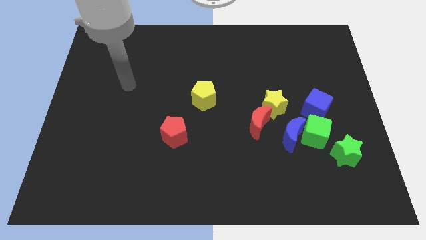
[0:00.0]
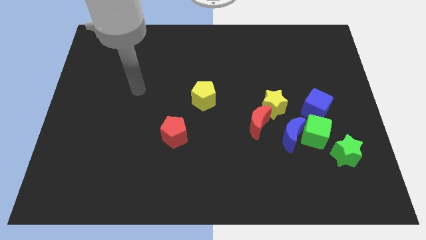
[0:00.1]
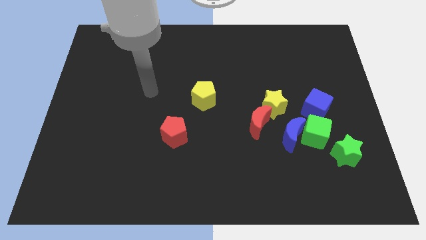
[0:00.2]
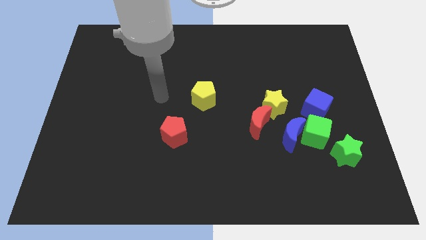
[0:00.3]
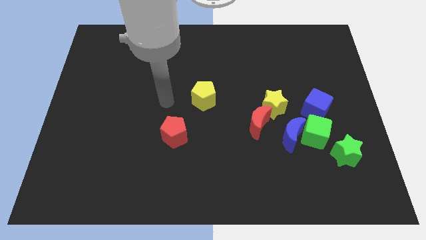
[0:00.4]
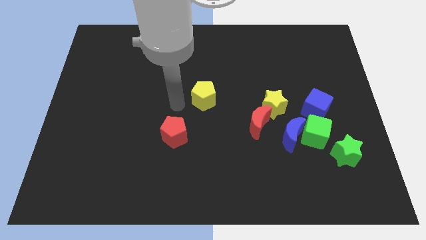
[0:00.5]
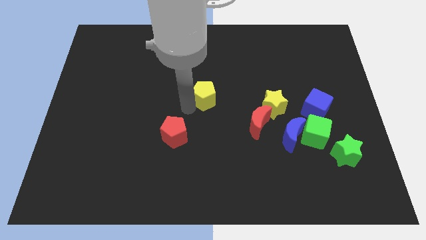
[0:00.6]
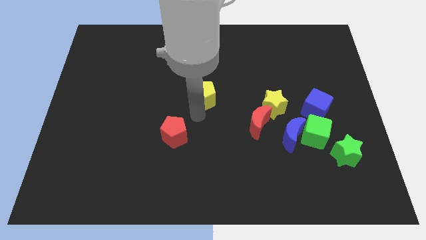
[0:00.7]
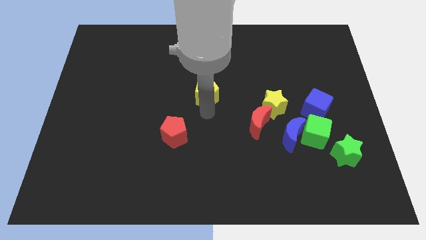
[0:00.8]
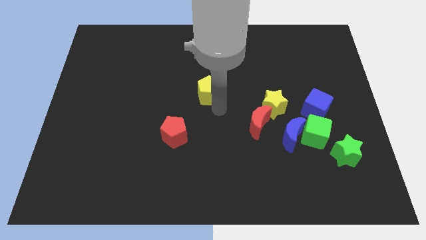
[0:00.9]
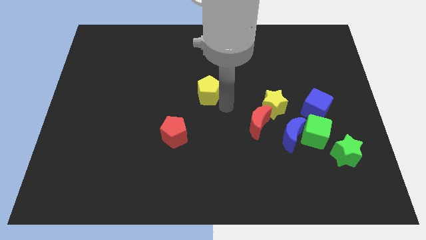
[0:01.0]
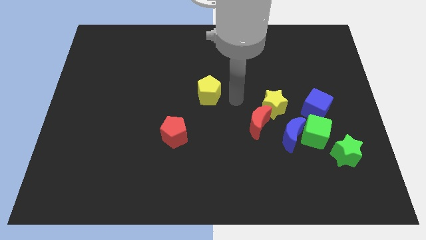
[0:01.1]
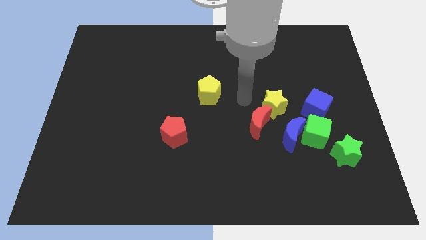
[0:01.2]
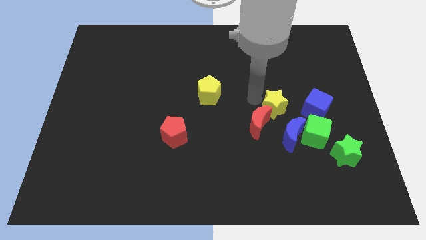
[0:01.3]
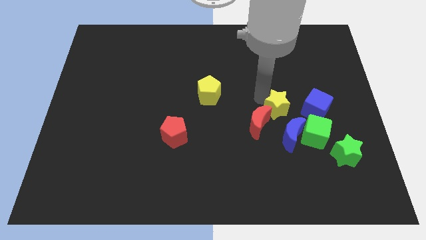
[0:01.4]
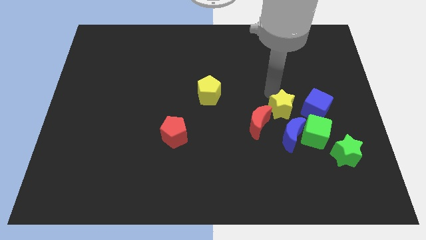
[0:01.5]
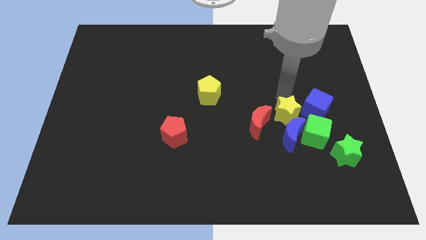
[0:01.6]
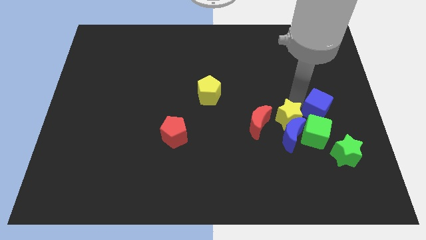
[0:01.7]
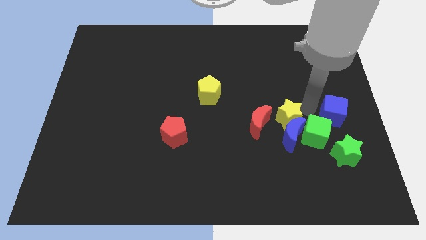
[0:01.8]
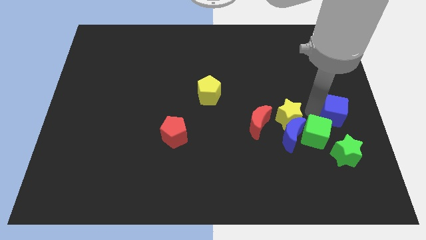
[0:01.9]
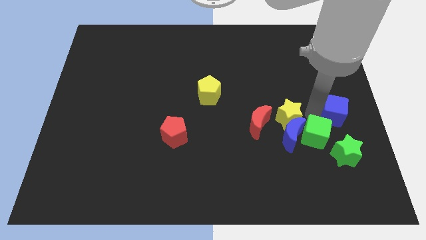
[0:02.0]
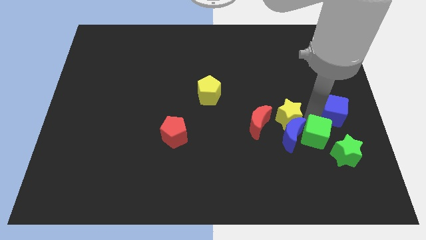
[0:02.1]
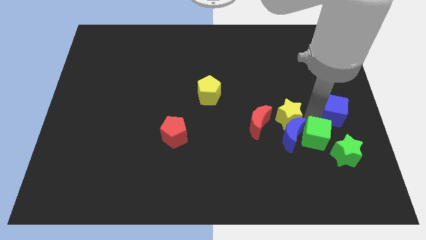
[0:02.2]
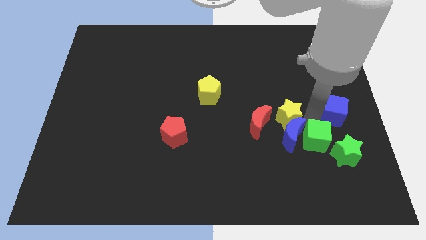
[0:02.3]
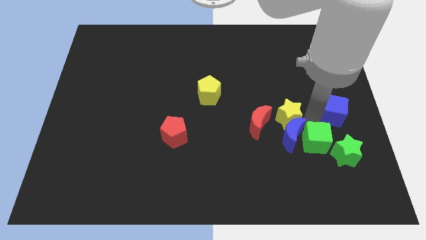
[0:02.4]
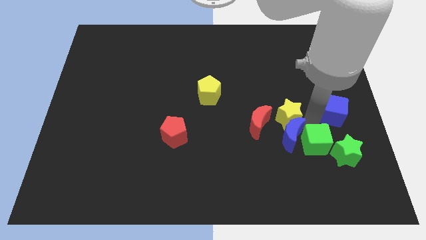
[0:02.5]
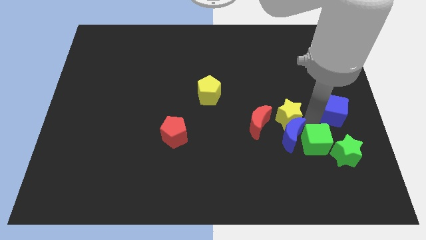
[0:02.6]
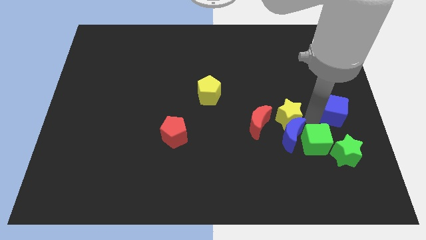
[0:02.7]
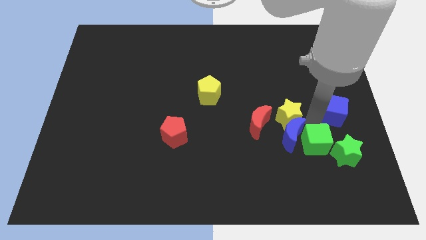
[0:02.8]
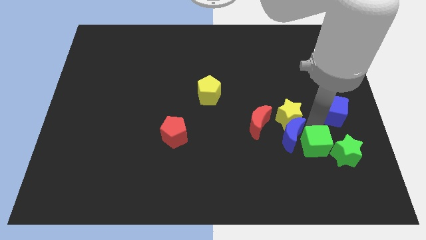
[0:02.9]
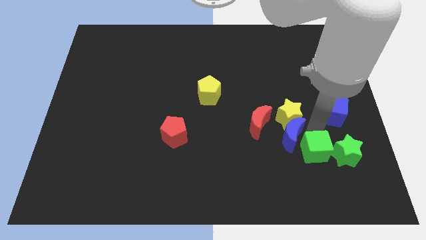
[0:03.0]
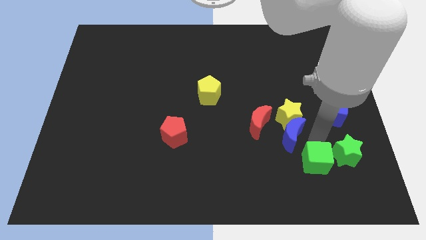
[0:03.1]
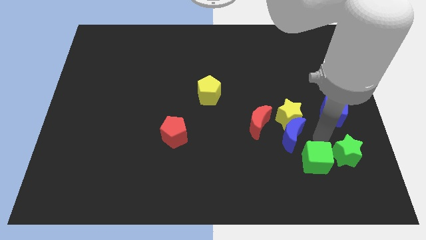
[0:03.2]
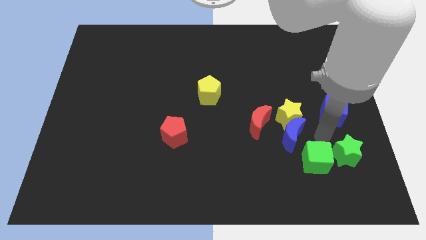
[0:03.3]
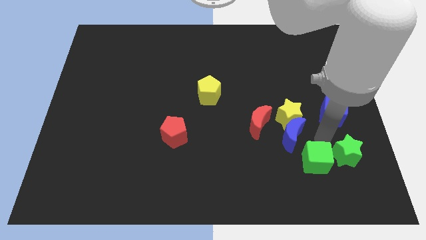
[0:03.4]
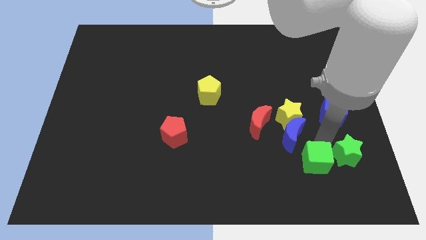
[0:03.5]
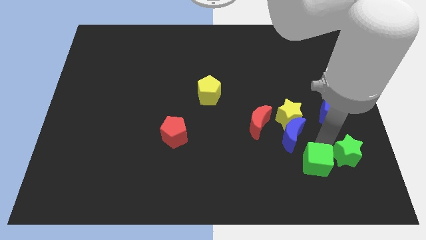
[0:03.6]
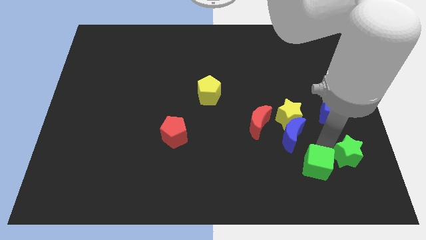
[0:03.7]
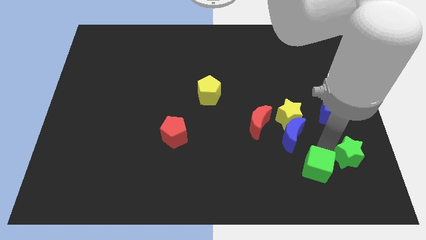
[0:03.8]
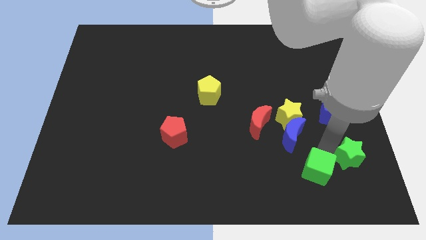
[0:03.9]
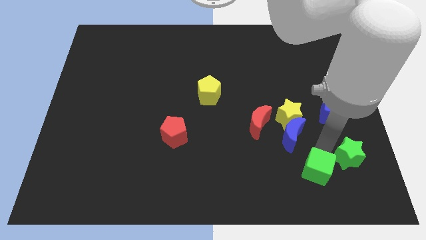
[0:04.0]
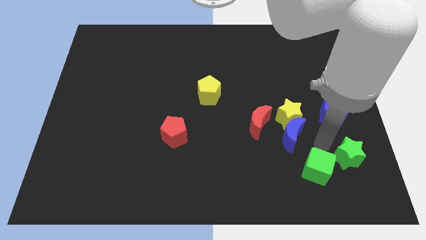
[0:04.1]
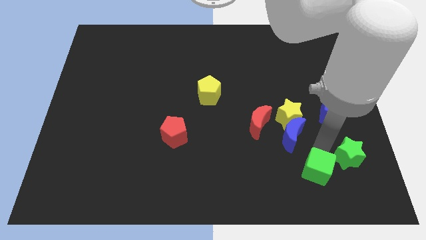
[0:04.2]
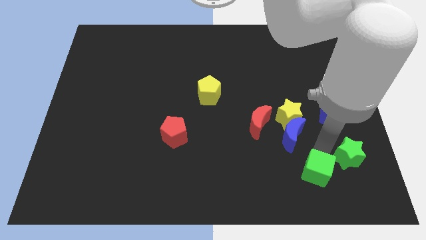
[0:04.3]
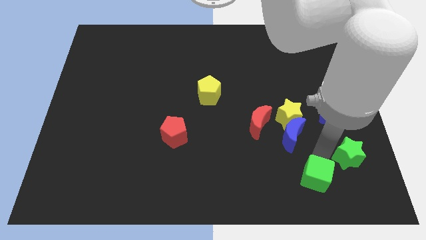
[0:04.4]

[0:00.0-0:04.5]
move the green cube away from the blue moon, blue cube, and green star

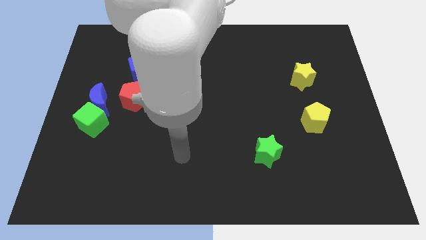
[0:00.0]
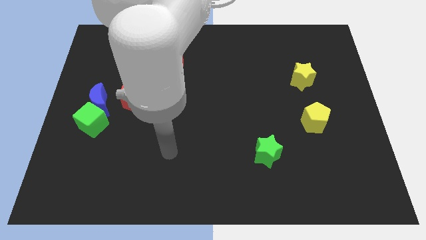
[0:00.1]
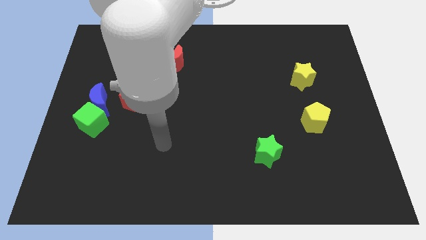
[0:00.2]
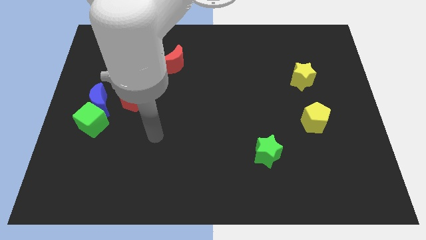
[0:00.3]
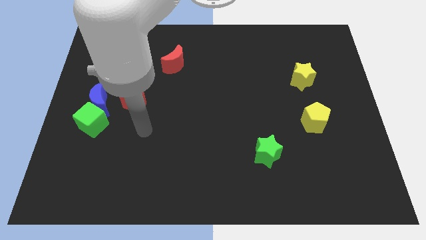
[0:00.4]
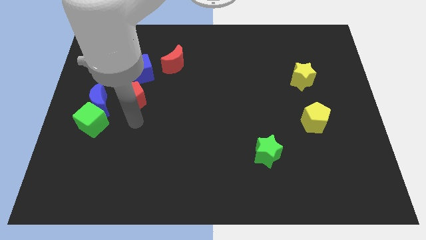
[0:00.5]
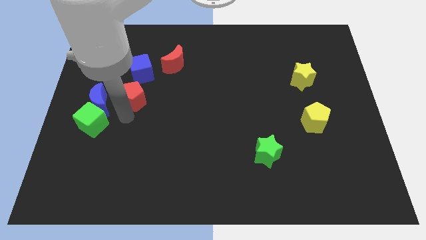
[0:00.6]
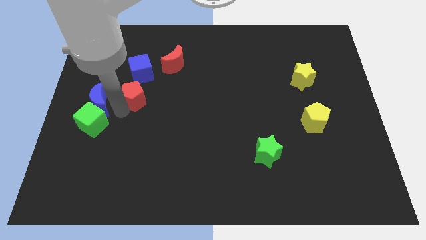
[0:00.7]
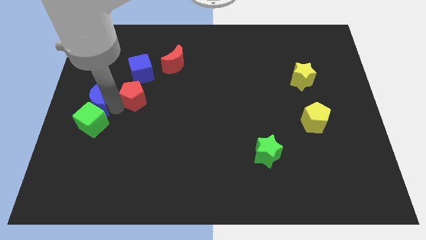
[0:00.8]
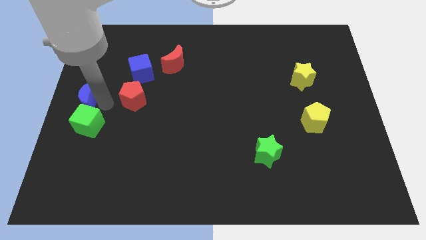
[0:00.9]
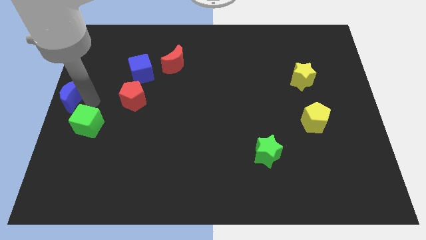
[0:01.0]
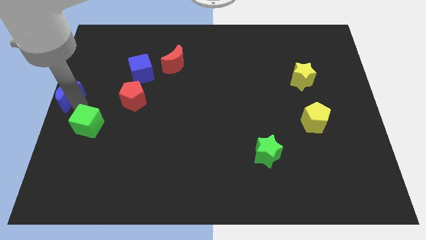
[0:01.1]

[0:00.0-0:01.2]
pull the green cube apart from the blue moon

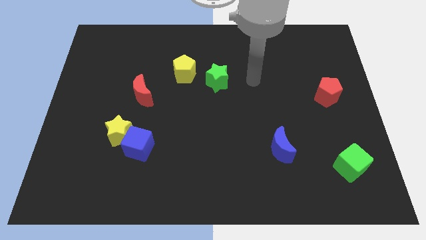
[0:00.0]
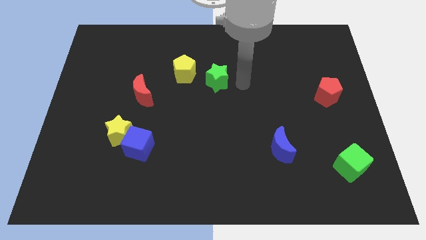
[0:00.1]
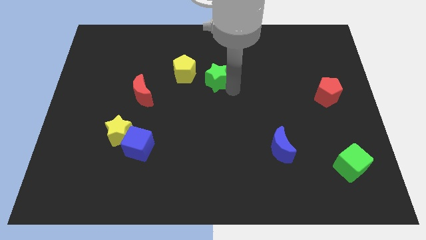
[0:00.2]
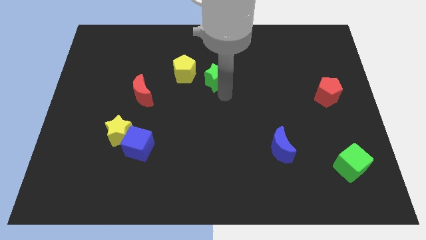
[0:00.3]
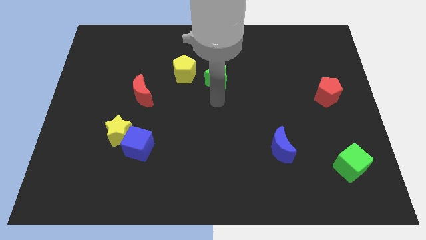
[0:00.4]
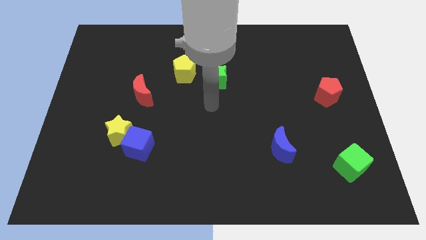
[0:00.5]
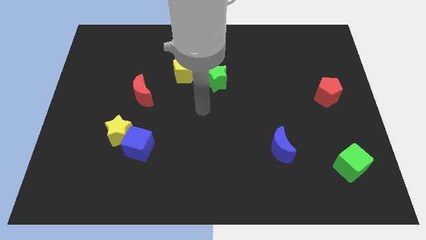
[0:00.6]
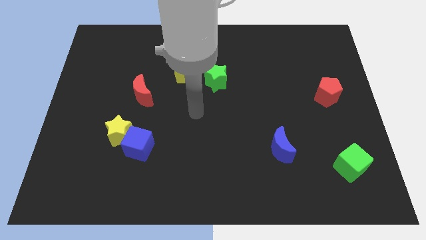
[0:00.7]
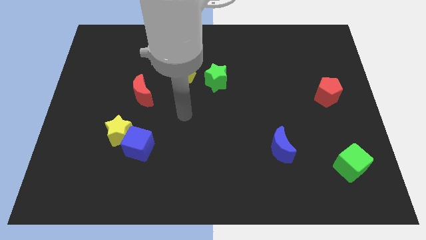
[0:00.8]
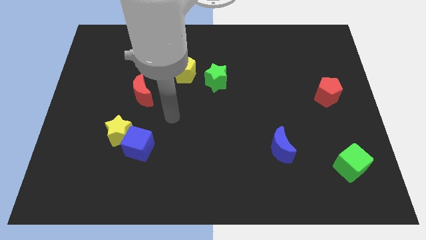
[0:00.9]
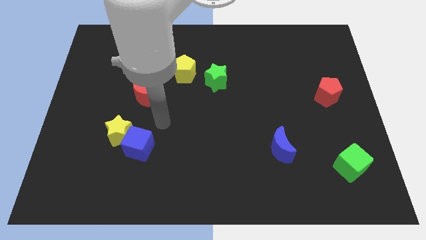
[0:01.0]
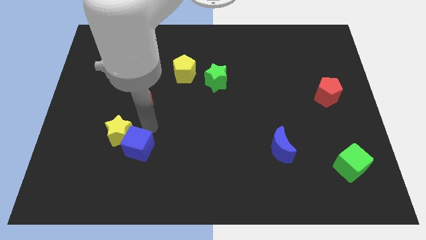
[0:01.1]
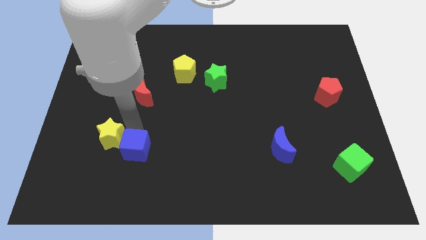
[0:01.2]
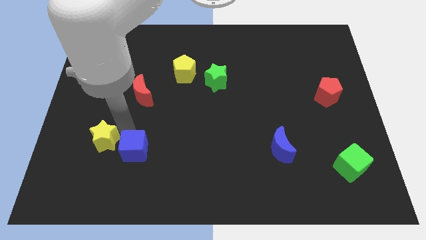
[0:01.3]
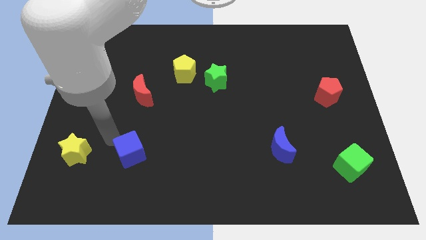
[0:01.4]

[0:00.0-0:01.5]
separate the blue cube from the yellow star

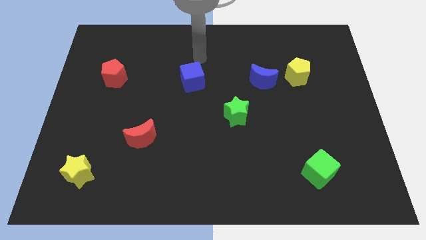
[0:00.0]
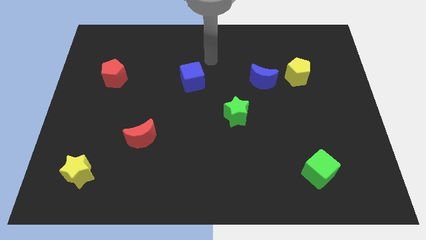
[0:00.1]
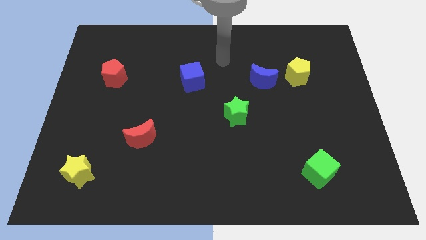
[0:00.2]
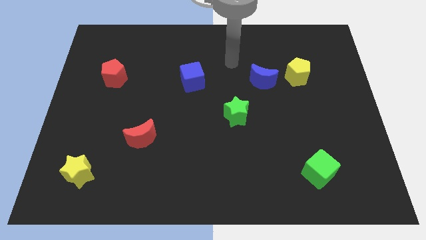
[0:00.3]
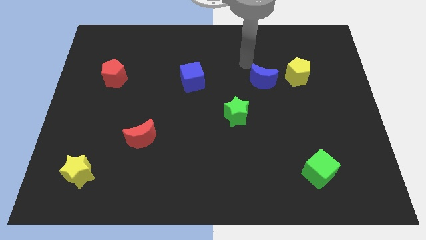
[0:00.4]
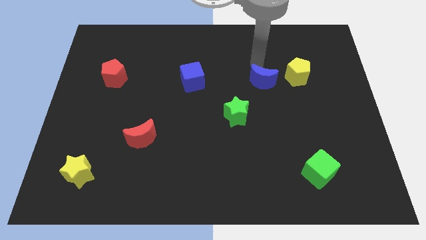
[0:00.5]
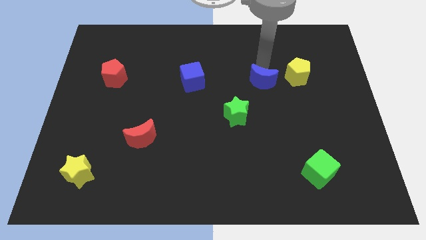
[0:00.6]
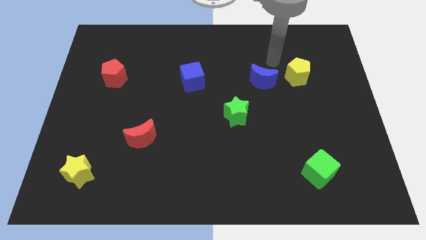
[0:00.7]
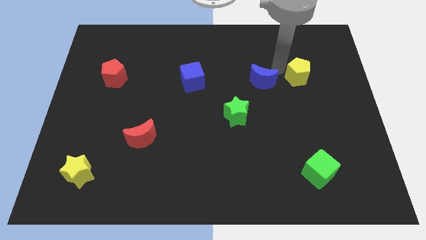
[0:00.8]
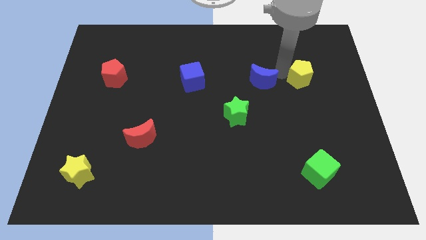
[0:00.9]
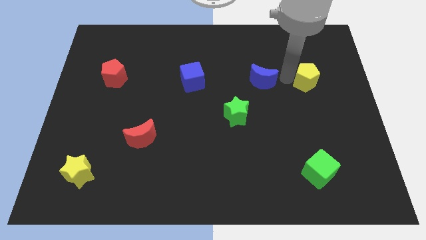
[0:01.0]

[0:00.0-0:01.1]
separate the blue moon from the yellow pentagon

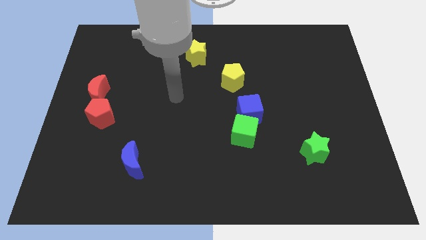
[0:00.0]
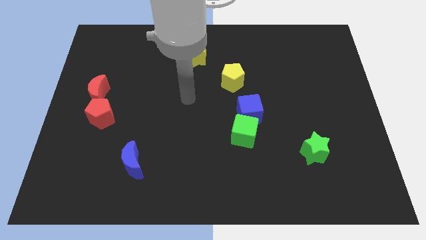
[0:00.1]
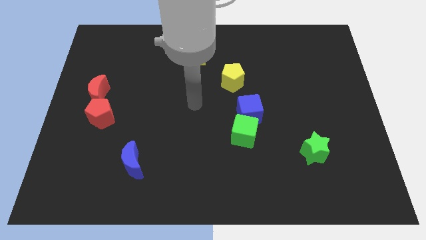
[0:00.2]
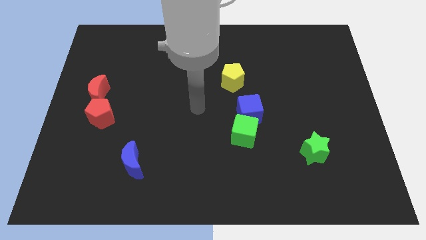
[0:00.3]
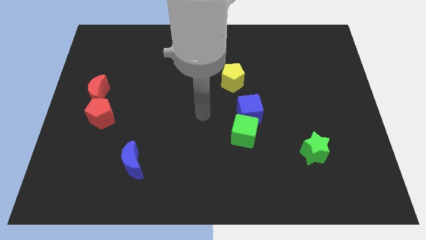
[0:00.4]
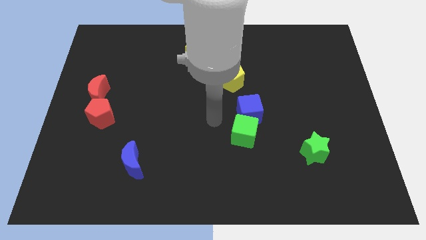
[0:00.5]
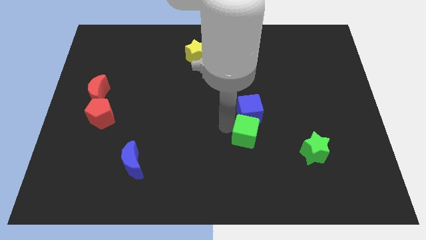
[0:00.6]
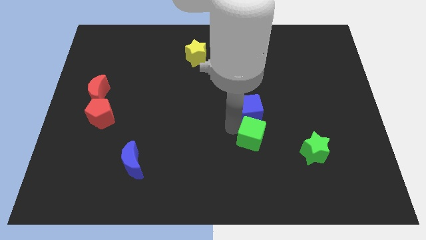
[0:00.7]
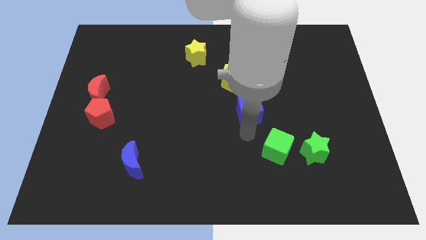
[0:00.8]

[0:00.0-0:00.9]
separate the blue cube from the green cube

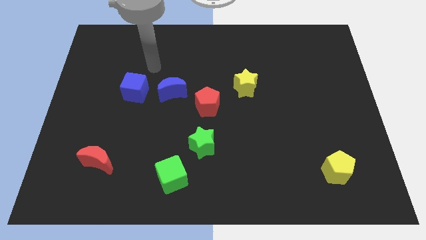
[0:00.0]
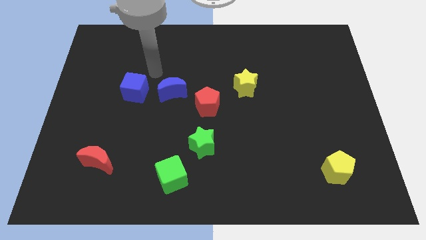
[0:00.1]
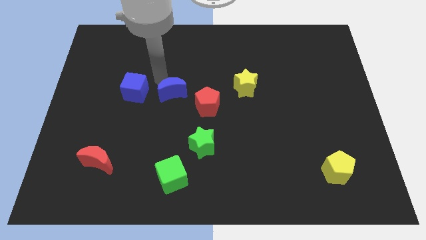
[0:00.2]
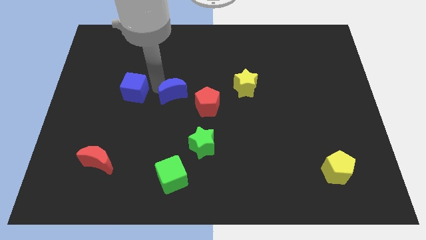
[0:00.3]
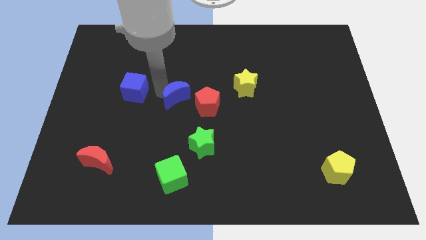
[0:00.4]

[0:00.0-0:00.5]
separate the blue cube from the blue moon
